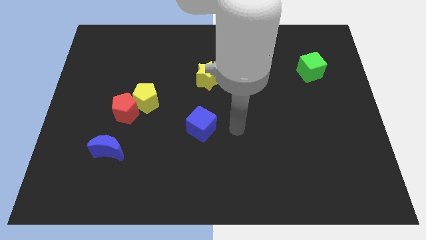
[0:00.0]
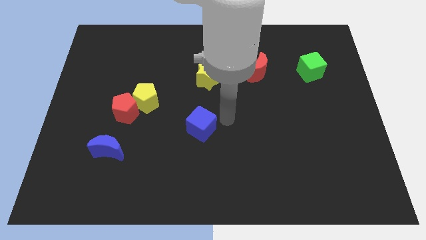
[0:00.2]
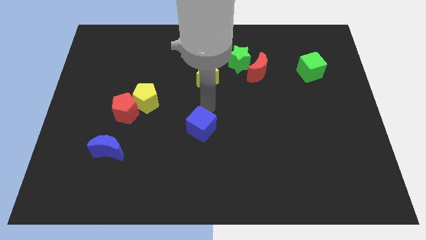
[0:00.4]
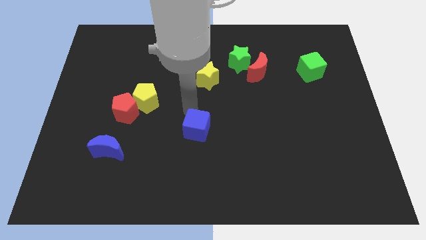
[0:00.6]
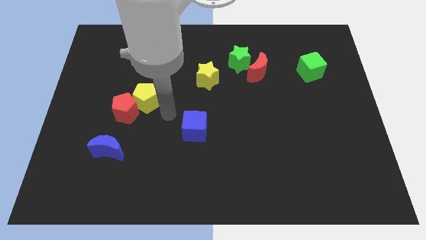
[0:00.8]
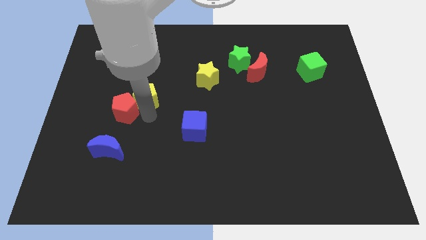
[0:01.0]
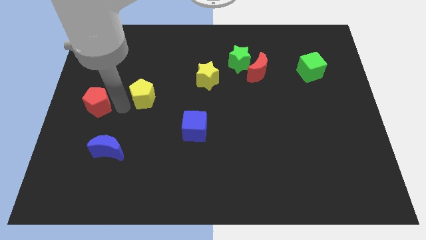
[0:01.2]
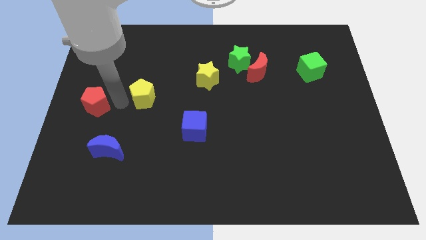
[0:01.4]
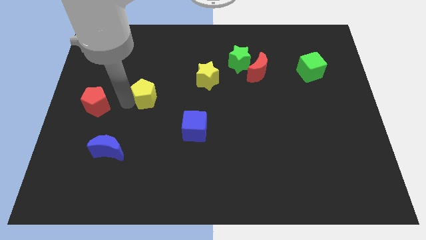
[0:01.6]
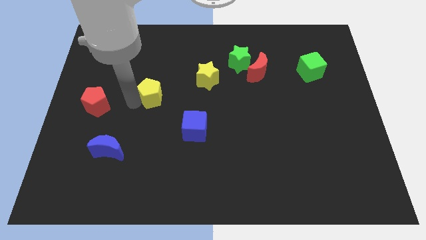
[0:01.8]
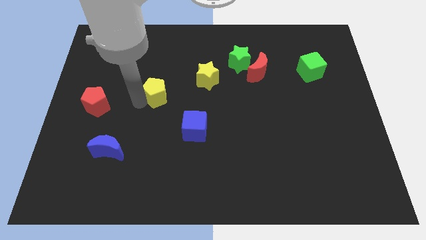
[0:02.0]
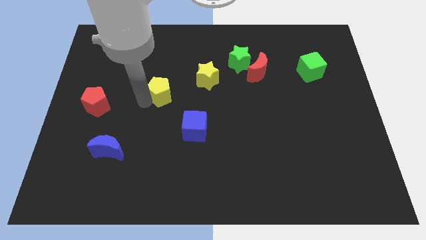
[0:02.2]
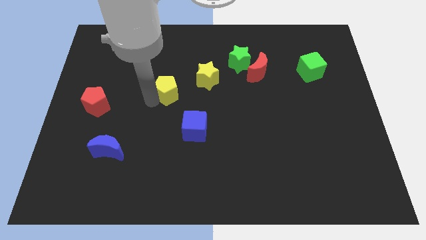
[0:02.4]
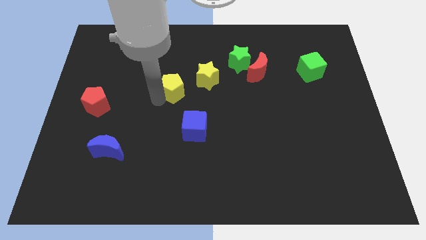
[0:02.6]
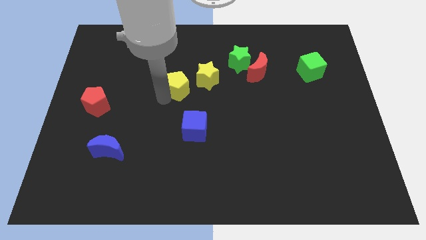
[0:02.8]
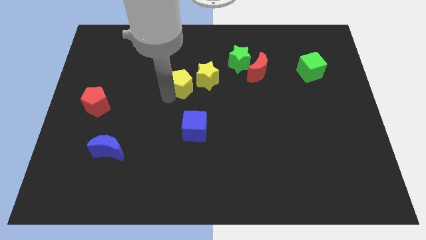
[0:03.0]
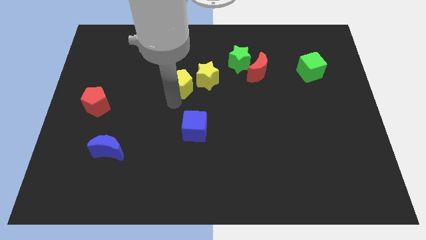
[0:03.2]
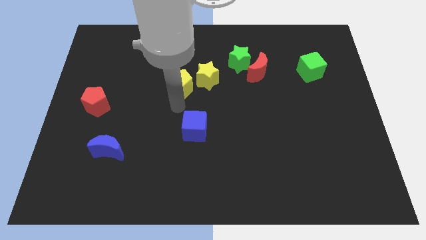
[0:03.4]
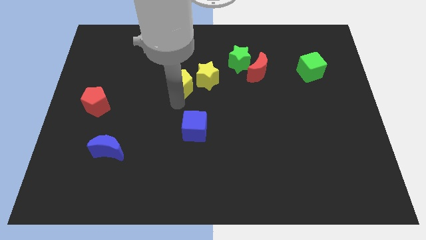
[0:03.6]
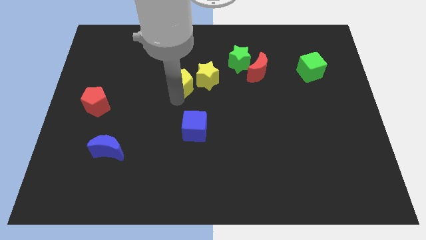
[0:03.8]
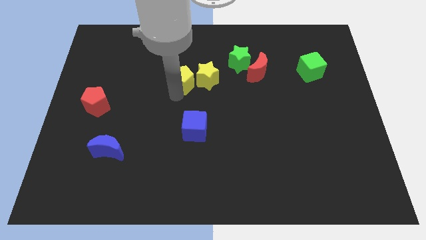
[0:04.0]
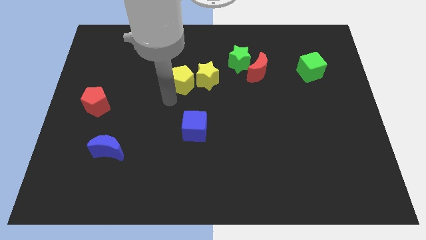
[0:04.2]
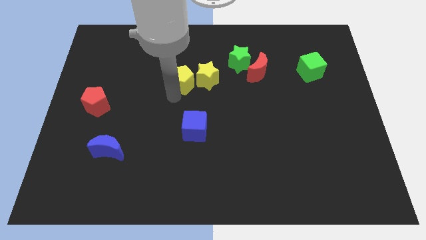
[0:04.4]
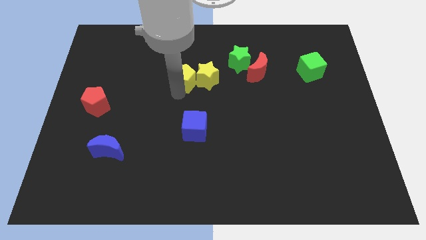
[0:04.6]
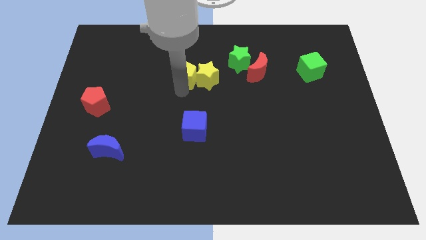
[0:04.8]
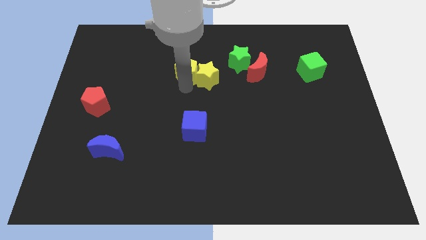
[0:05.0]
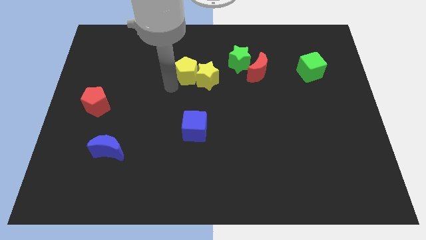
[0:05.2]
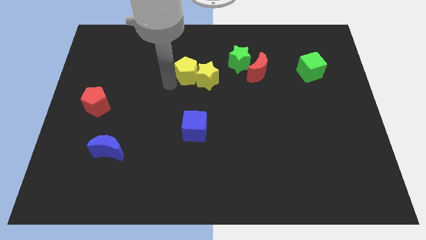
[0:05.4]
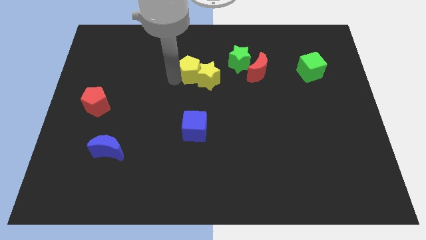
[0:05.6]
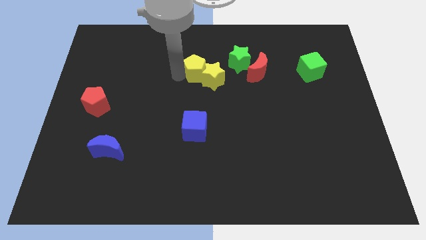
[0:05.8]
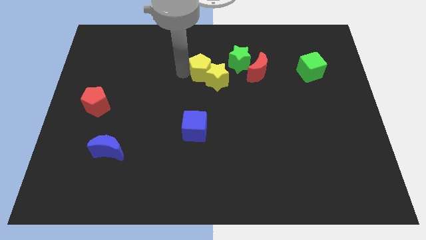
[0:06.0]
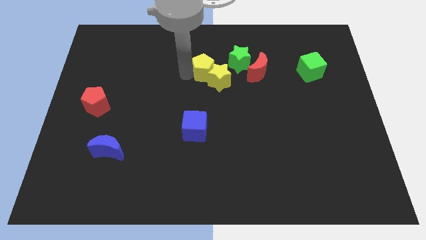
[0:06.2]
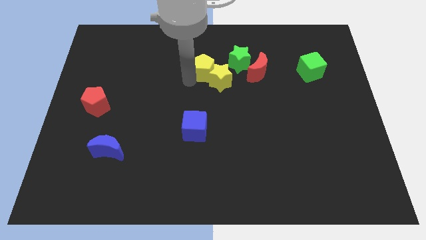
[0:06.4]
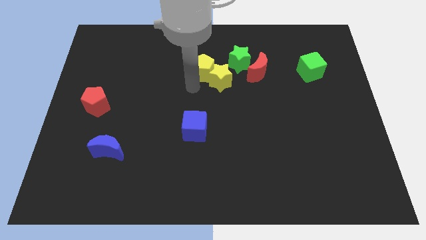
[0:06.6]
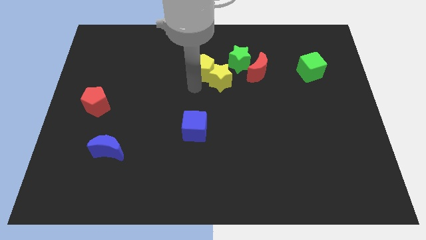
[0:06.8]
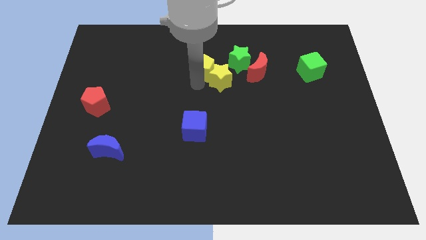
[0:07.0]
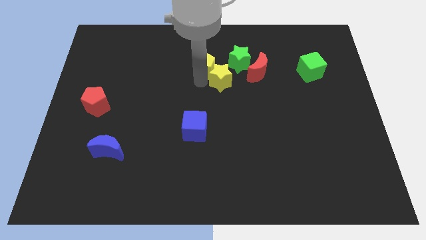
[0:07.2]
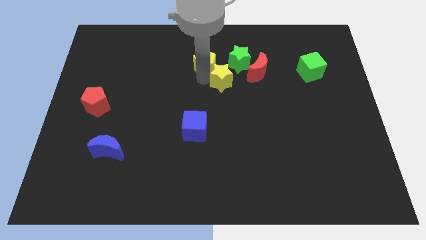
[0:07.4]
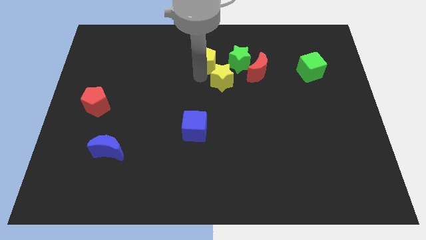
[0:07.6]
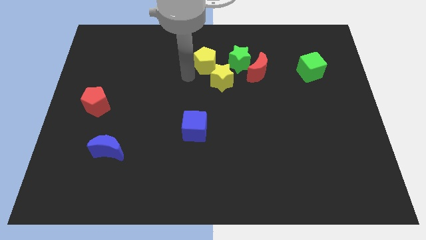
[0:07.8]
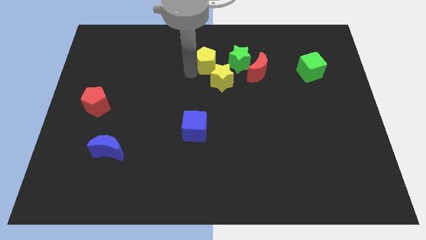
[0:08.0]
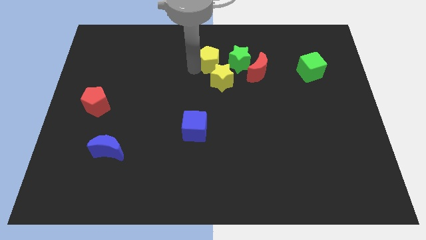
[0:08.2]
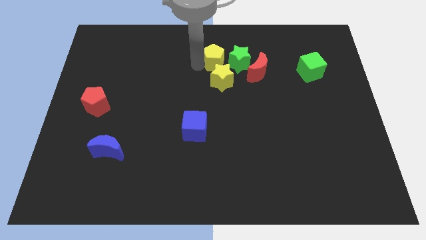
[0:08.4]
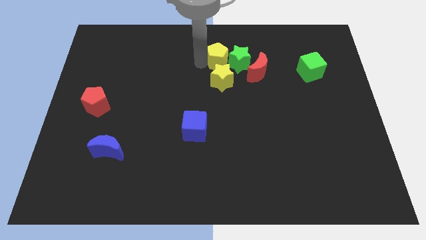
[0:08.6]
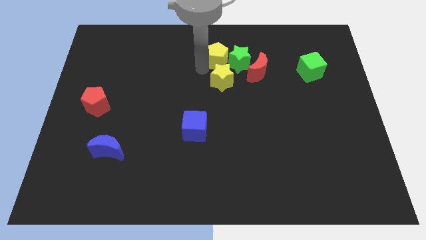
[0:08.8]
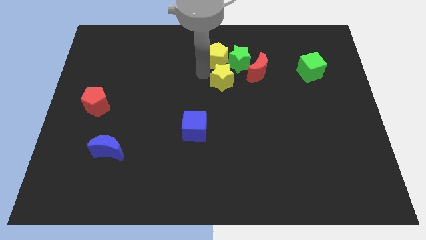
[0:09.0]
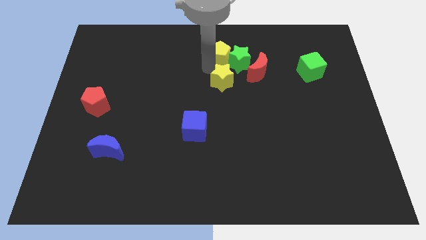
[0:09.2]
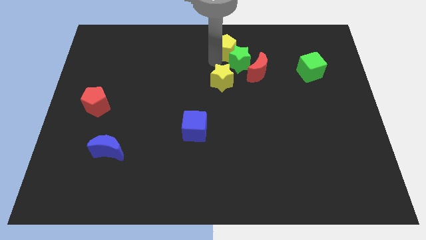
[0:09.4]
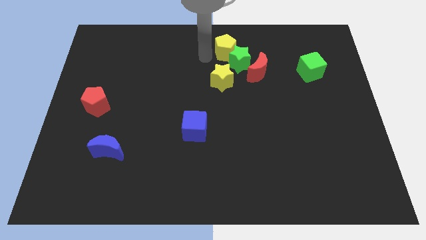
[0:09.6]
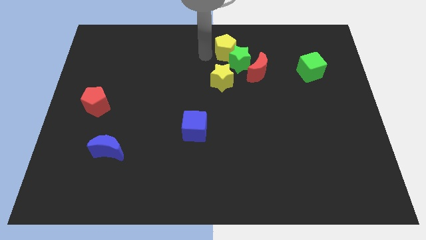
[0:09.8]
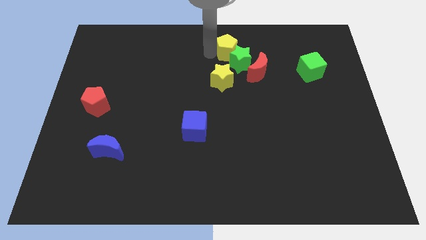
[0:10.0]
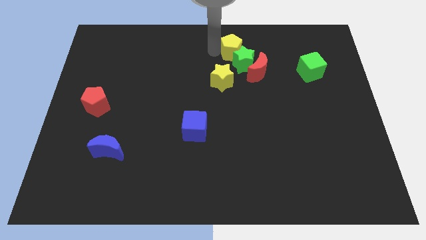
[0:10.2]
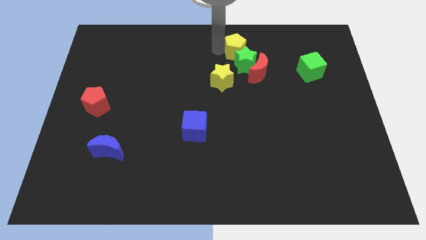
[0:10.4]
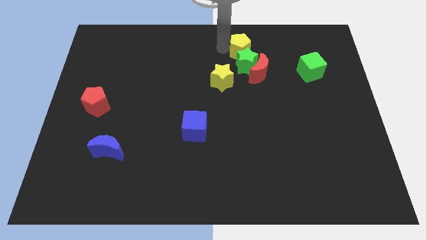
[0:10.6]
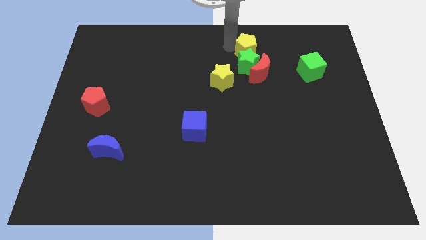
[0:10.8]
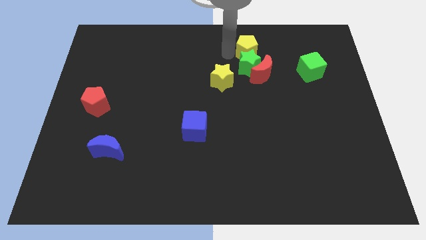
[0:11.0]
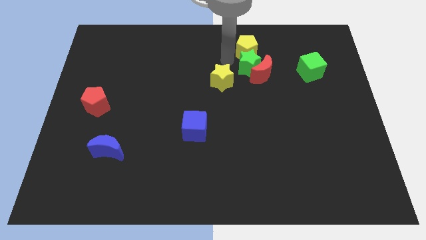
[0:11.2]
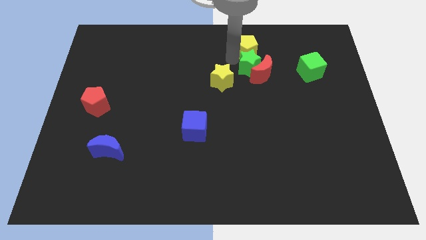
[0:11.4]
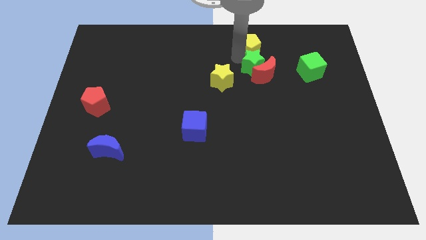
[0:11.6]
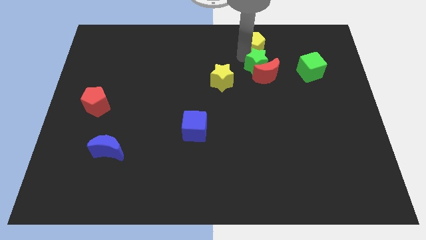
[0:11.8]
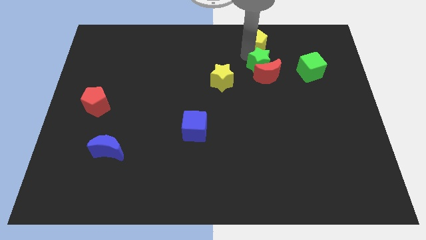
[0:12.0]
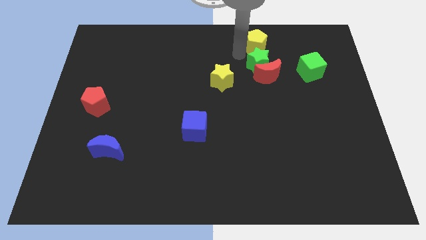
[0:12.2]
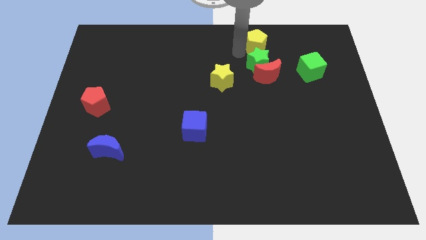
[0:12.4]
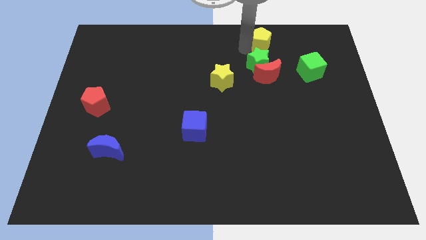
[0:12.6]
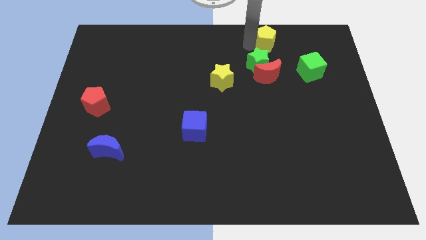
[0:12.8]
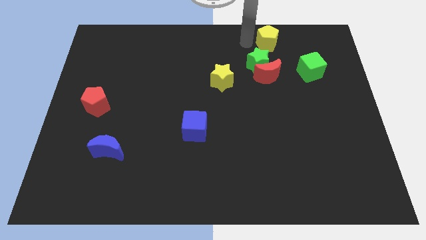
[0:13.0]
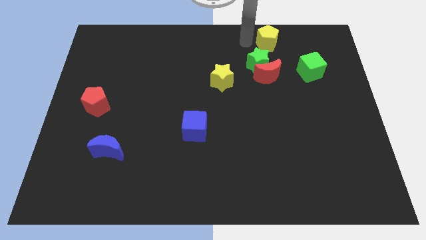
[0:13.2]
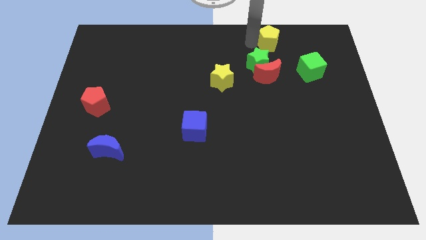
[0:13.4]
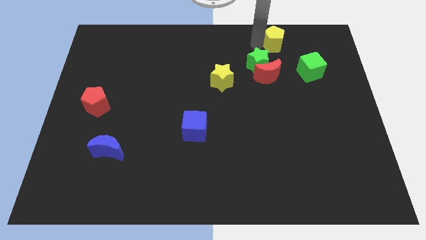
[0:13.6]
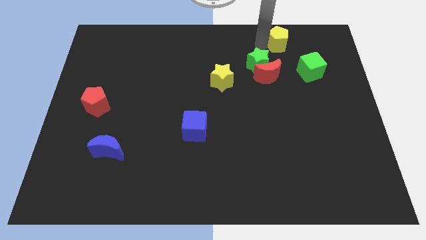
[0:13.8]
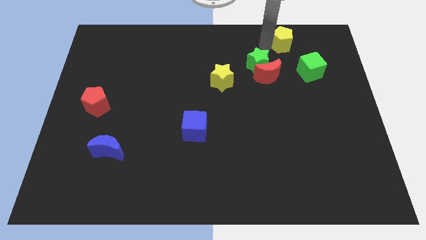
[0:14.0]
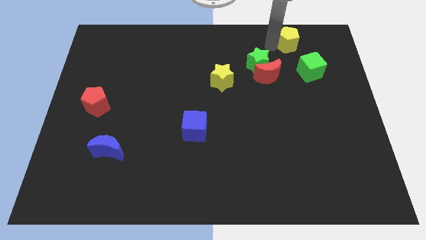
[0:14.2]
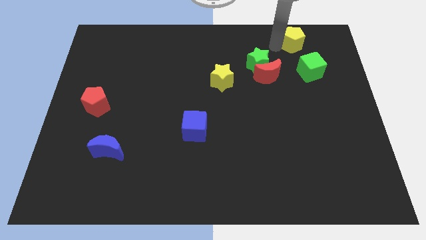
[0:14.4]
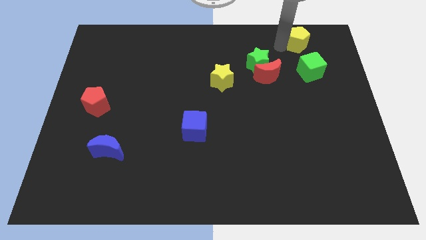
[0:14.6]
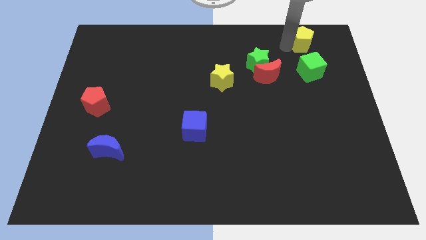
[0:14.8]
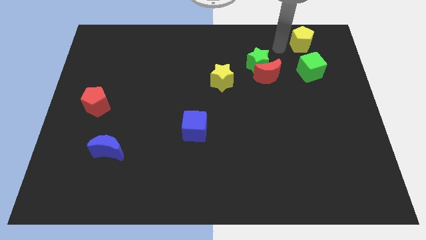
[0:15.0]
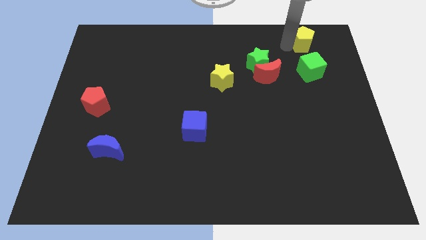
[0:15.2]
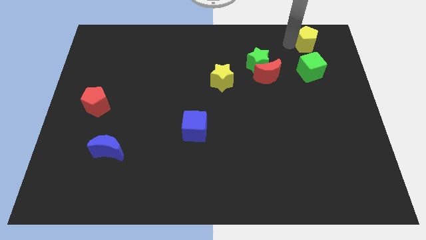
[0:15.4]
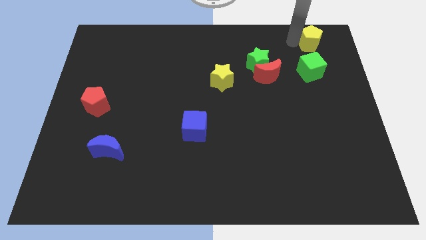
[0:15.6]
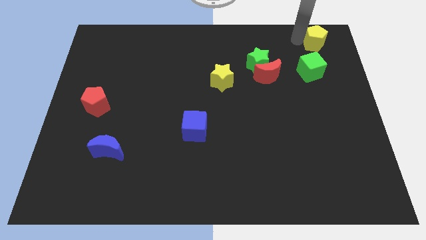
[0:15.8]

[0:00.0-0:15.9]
put the yellow pentagon to the top right corner
